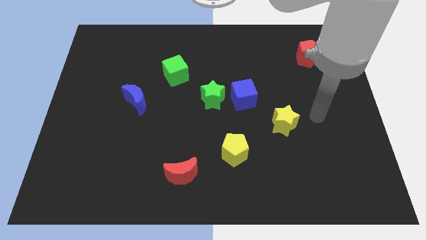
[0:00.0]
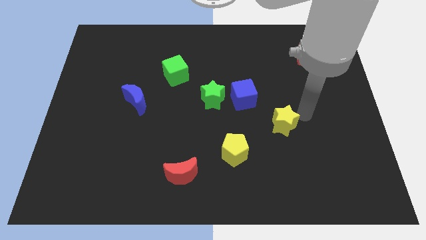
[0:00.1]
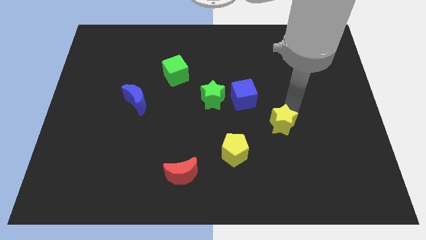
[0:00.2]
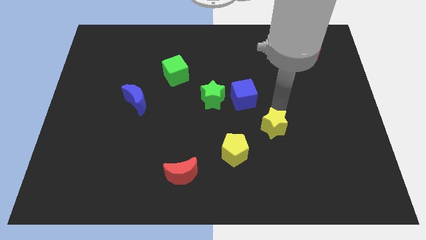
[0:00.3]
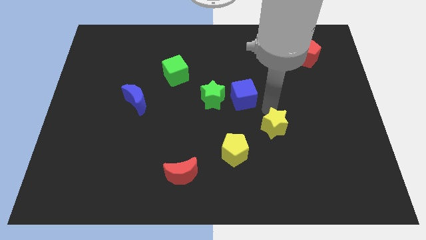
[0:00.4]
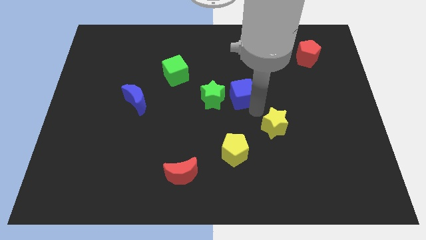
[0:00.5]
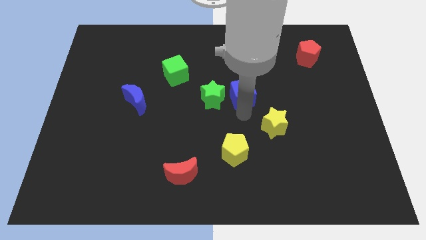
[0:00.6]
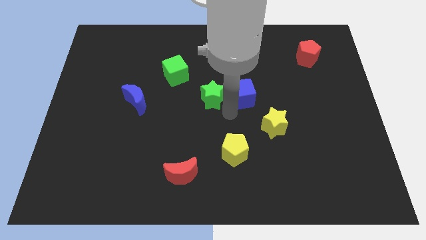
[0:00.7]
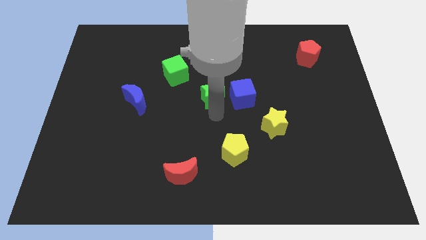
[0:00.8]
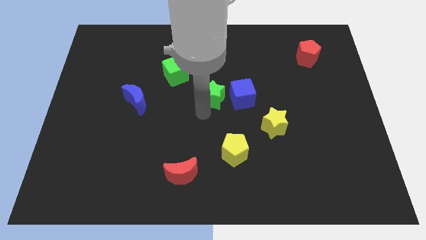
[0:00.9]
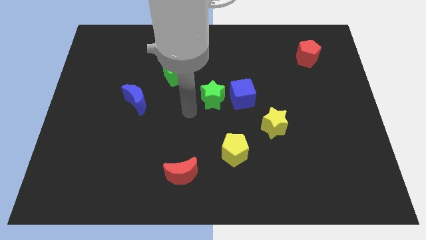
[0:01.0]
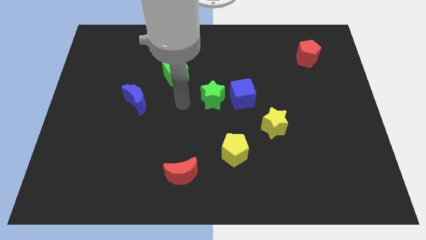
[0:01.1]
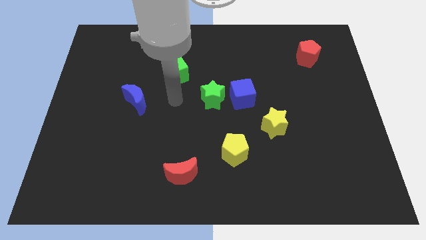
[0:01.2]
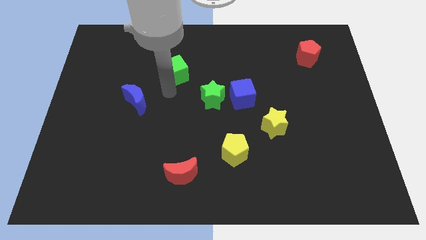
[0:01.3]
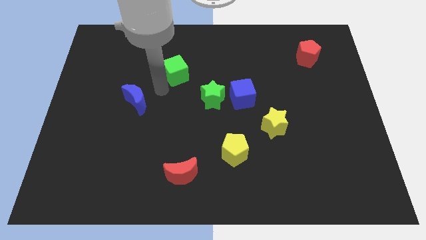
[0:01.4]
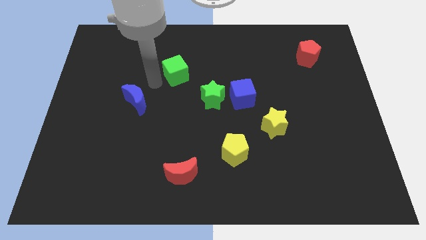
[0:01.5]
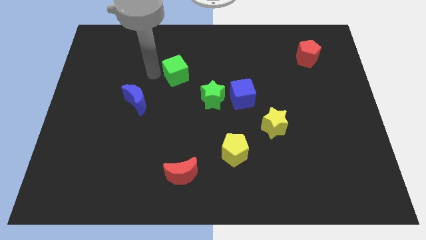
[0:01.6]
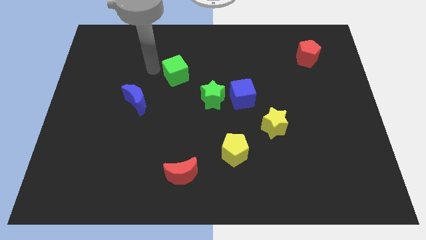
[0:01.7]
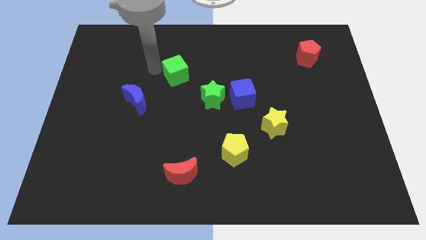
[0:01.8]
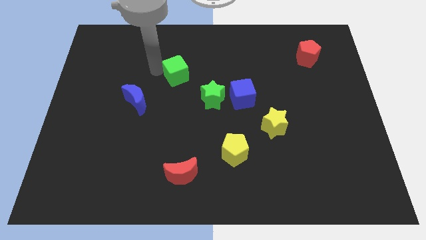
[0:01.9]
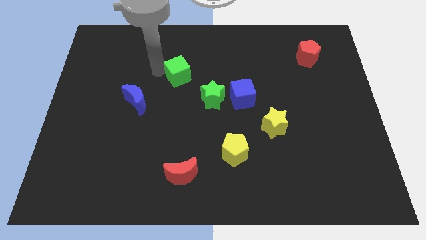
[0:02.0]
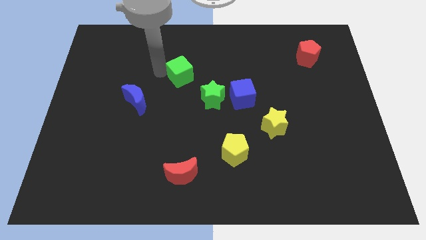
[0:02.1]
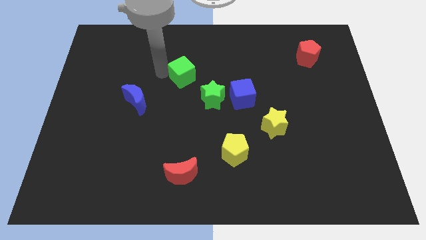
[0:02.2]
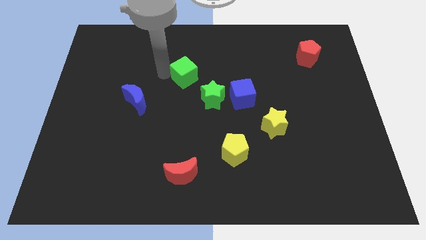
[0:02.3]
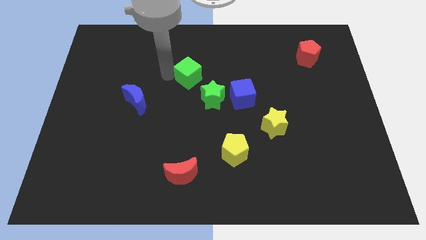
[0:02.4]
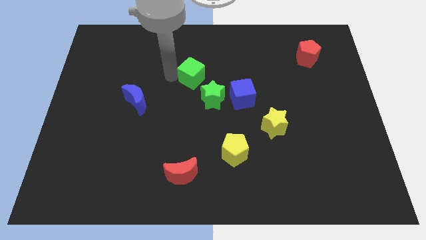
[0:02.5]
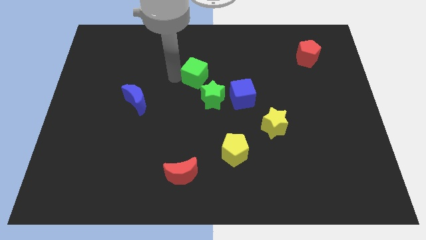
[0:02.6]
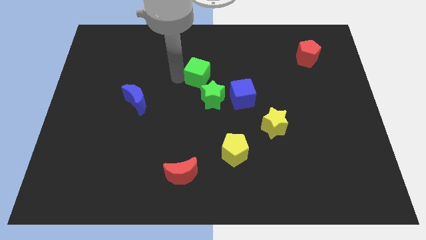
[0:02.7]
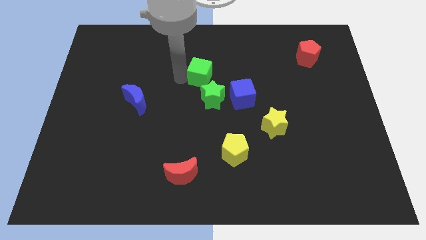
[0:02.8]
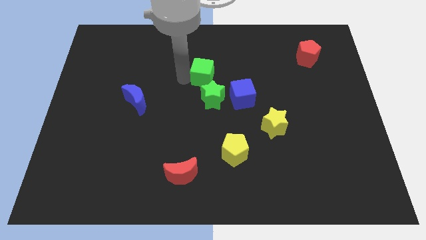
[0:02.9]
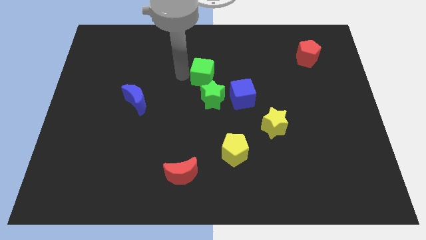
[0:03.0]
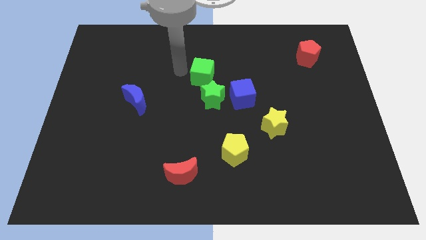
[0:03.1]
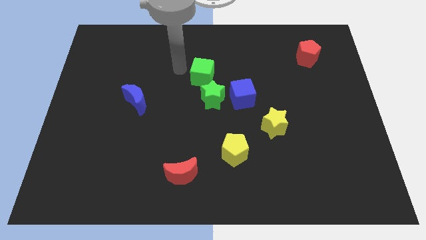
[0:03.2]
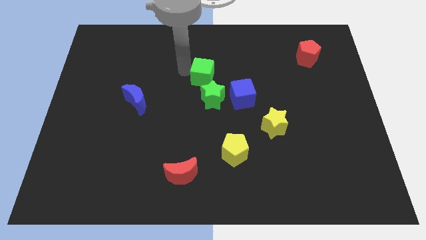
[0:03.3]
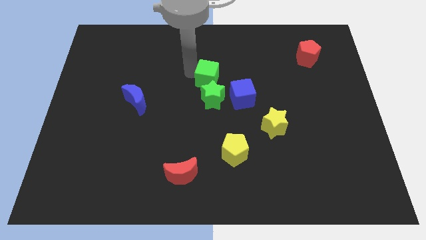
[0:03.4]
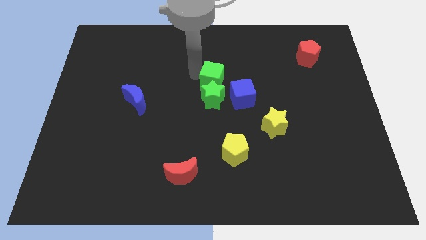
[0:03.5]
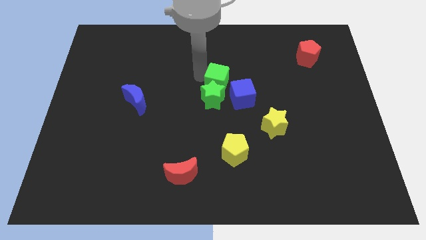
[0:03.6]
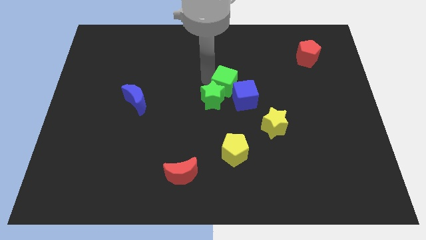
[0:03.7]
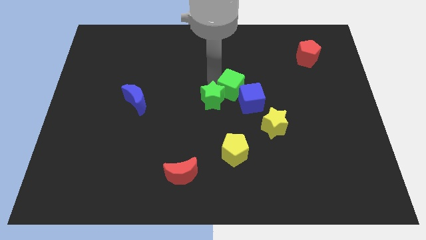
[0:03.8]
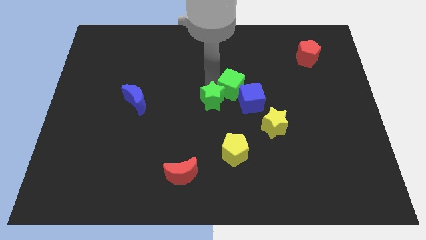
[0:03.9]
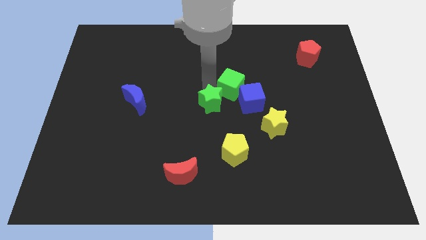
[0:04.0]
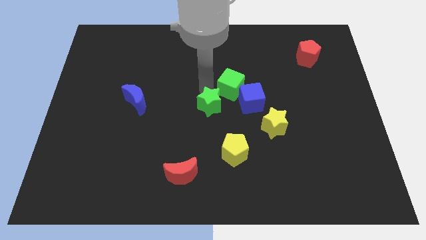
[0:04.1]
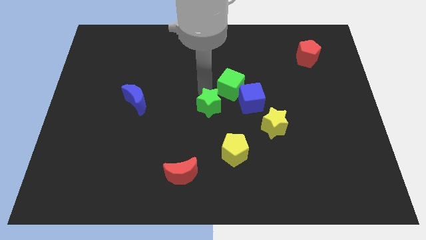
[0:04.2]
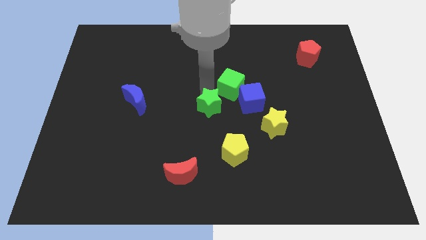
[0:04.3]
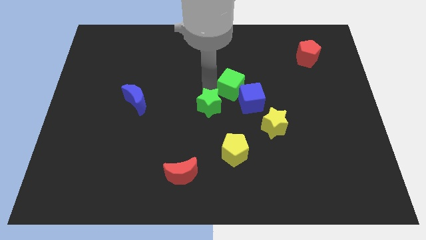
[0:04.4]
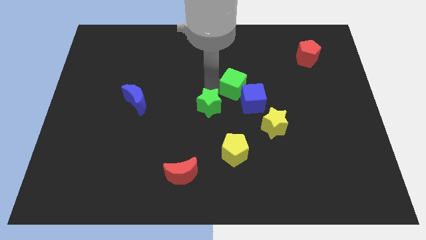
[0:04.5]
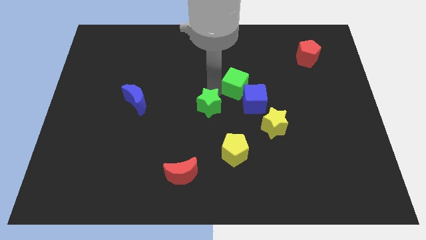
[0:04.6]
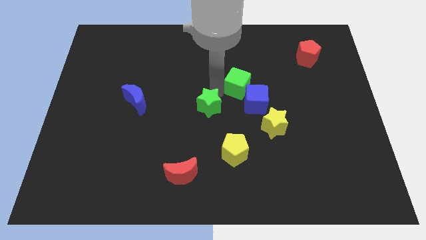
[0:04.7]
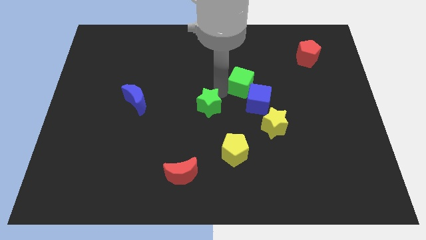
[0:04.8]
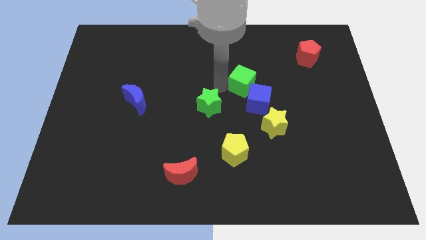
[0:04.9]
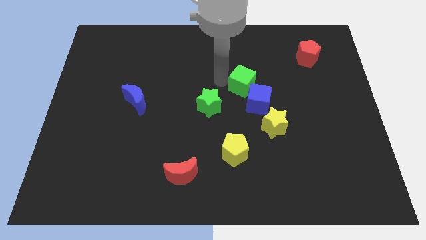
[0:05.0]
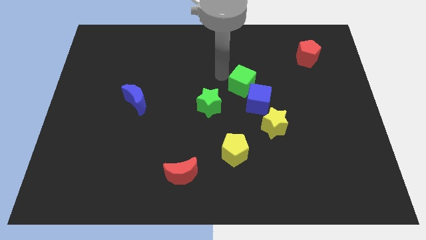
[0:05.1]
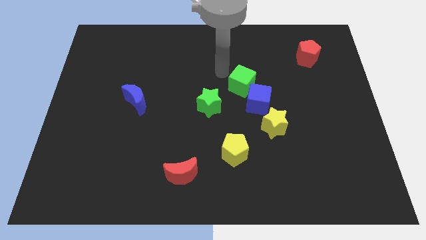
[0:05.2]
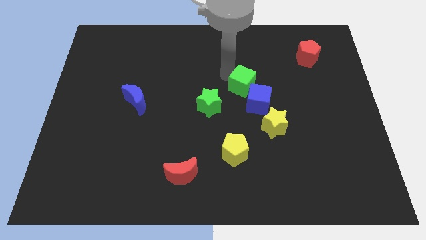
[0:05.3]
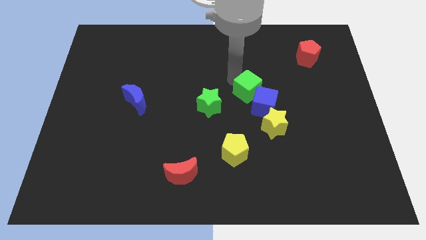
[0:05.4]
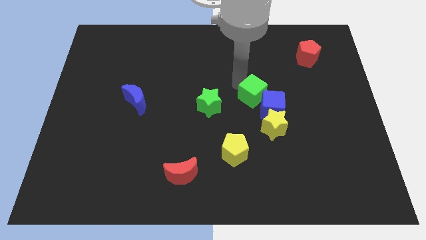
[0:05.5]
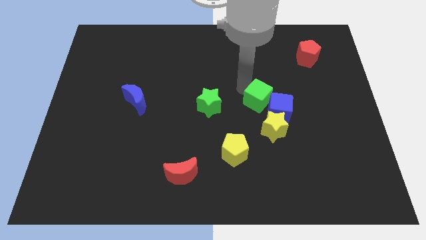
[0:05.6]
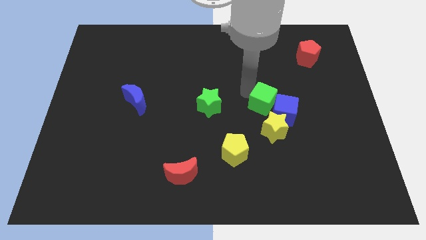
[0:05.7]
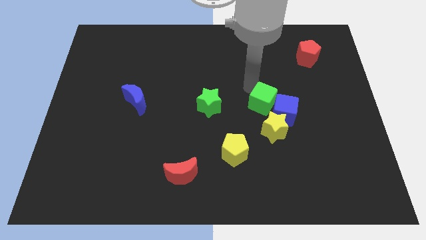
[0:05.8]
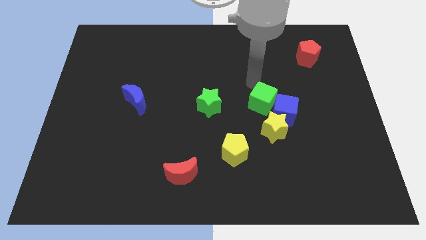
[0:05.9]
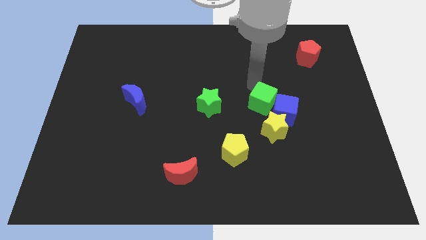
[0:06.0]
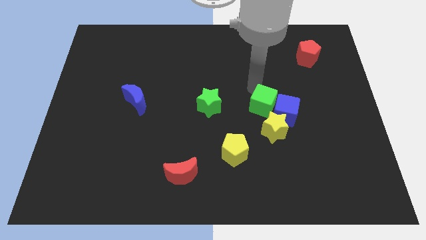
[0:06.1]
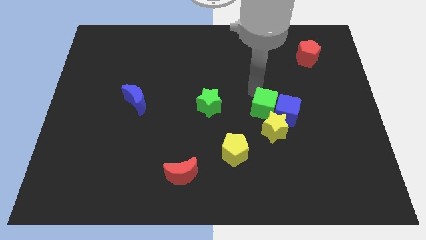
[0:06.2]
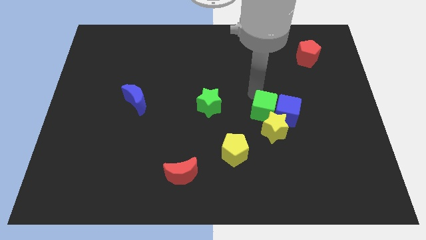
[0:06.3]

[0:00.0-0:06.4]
put the green cube to the yellow star

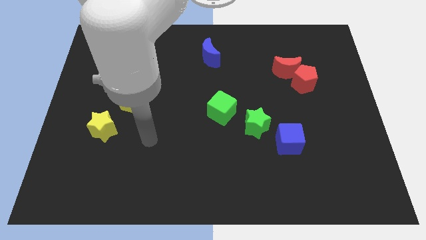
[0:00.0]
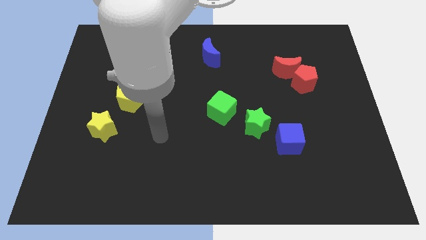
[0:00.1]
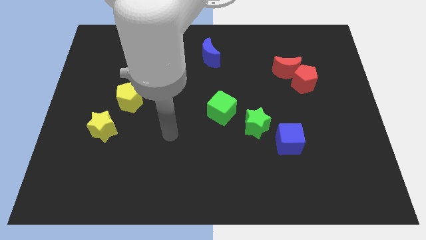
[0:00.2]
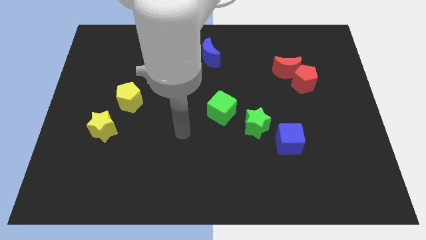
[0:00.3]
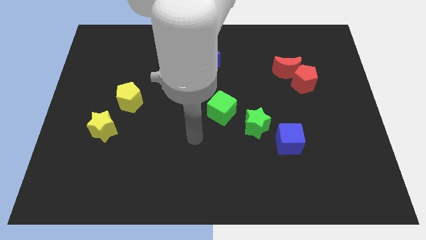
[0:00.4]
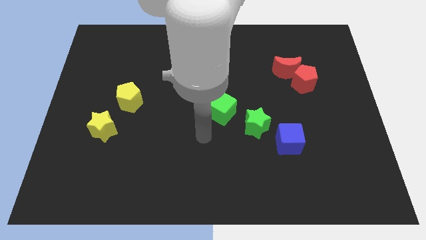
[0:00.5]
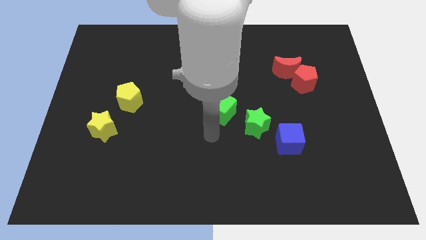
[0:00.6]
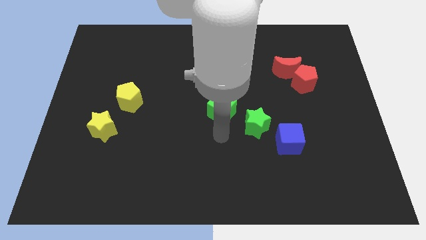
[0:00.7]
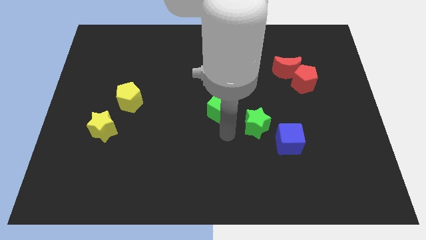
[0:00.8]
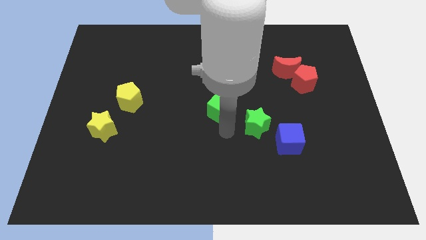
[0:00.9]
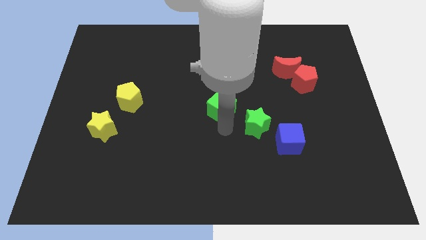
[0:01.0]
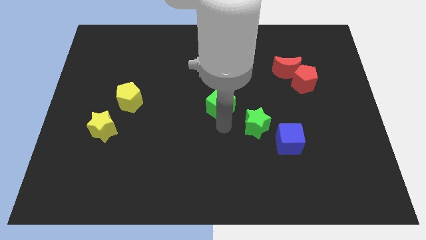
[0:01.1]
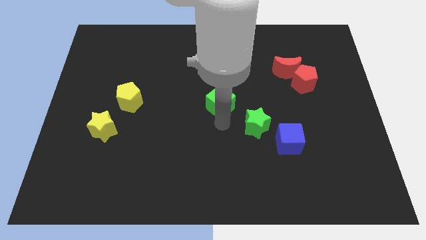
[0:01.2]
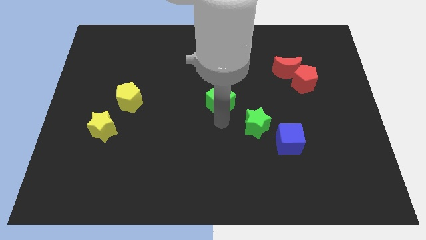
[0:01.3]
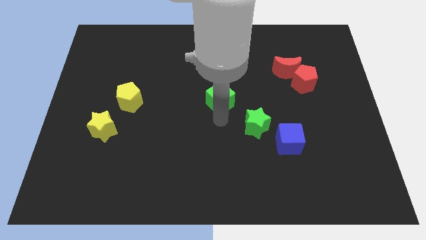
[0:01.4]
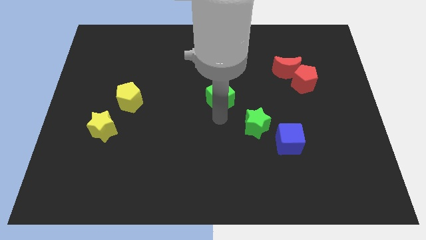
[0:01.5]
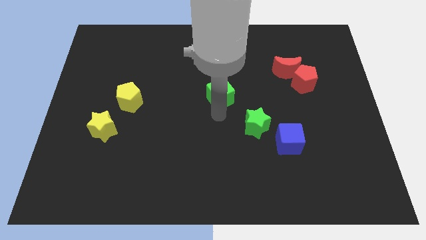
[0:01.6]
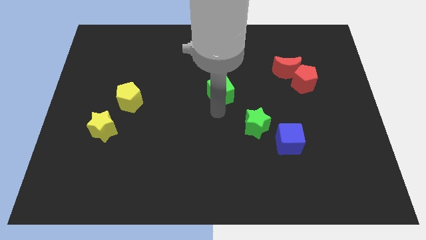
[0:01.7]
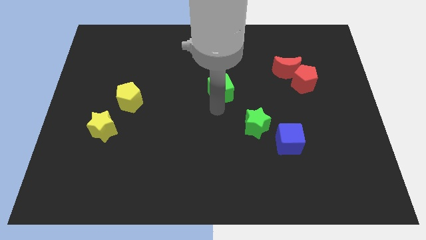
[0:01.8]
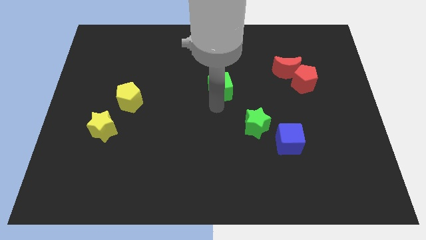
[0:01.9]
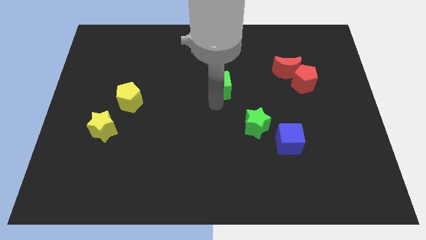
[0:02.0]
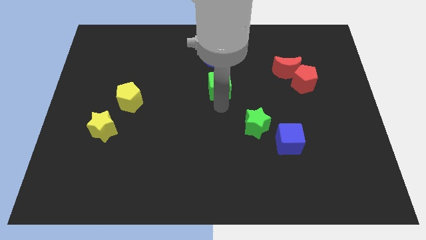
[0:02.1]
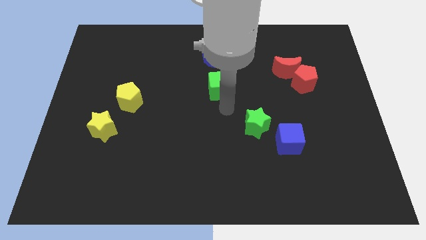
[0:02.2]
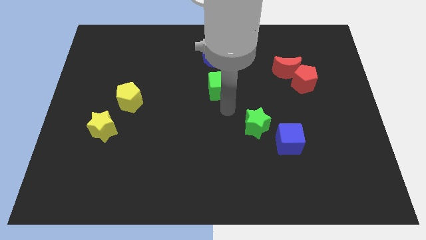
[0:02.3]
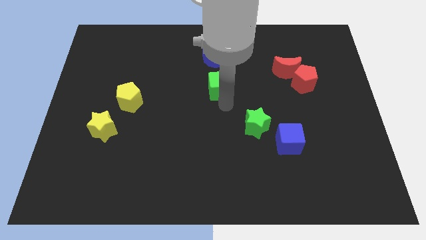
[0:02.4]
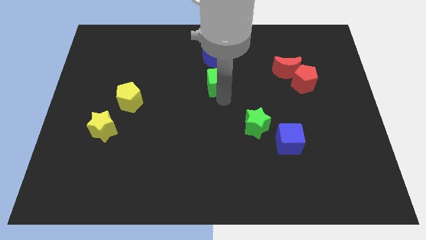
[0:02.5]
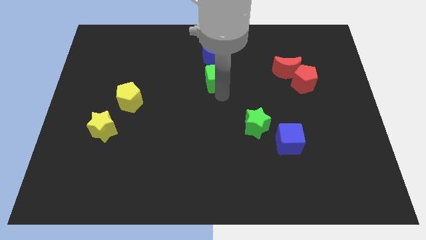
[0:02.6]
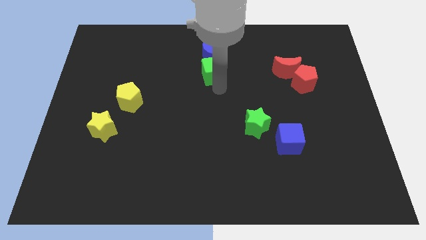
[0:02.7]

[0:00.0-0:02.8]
push the green cube towards the blue moon
